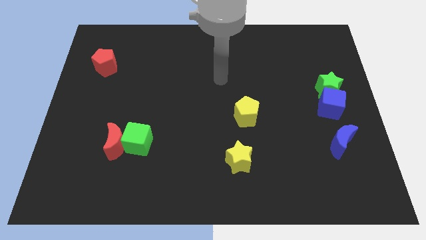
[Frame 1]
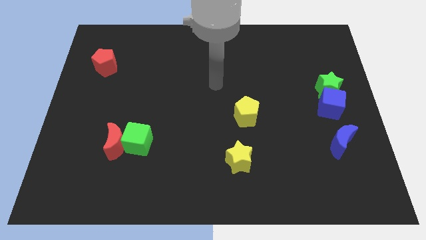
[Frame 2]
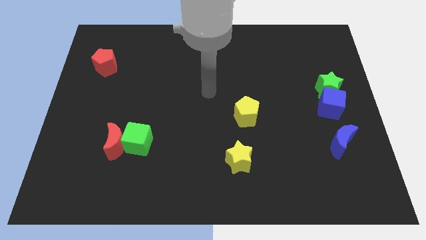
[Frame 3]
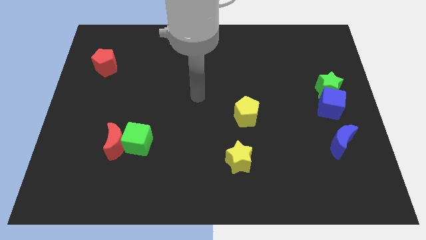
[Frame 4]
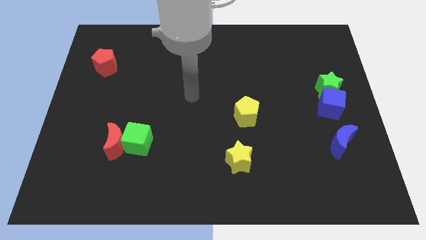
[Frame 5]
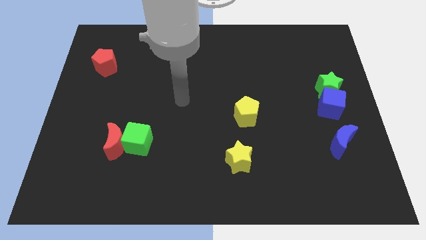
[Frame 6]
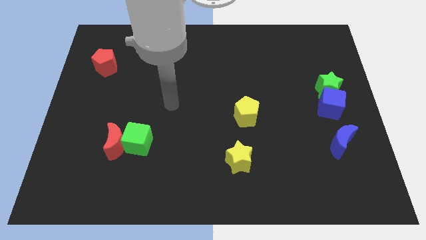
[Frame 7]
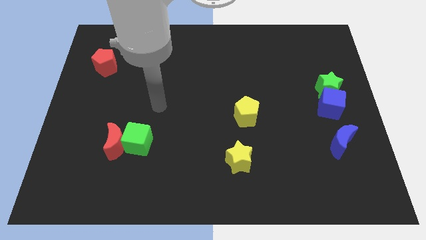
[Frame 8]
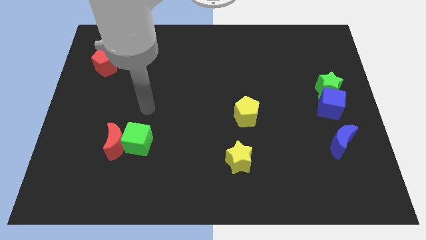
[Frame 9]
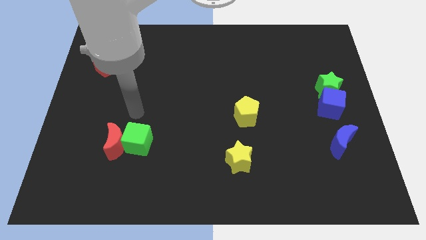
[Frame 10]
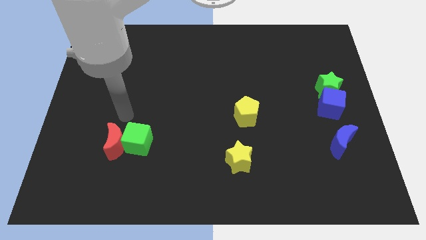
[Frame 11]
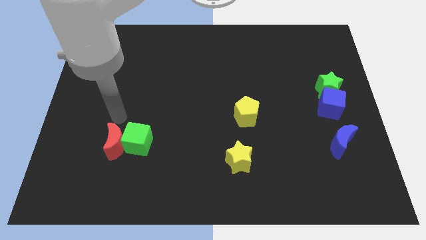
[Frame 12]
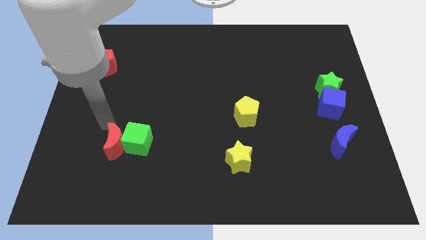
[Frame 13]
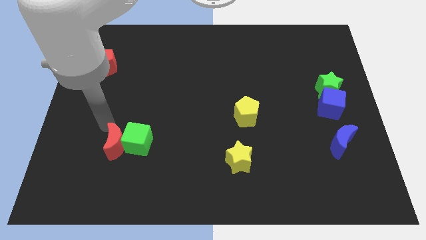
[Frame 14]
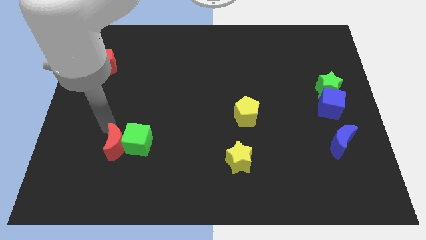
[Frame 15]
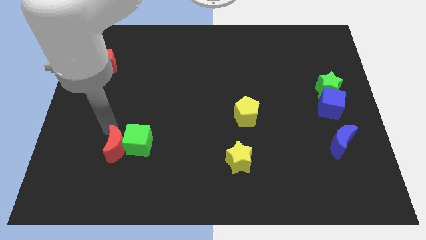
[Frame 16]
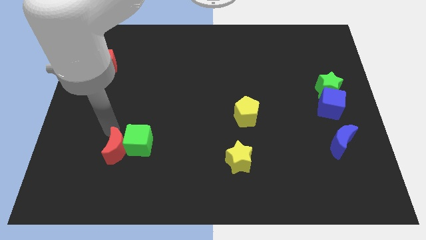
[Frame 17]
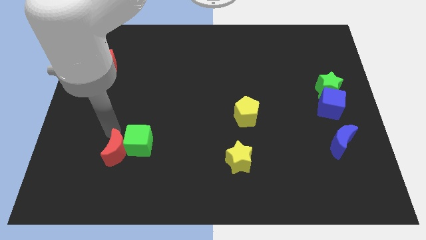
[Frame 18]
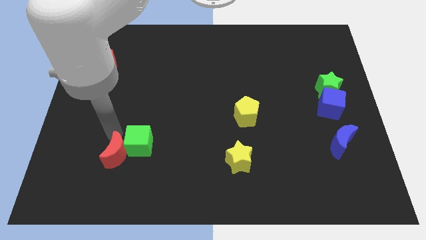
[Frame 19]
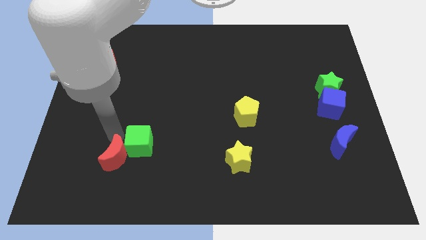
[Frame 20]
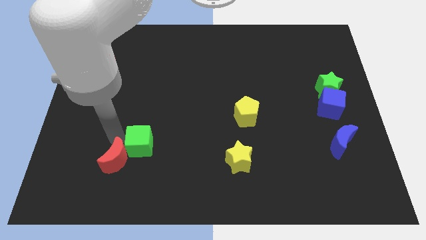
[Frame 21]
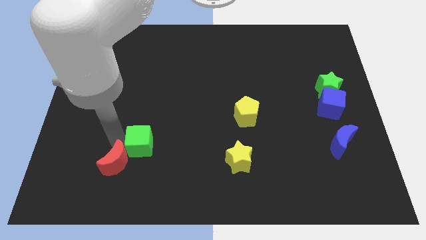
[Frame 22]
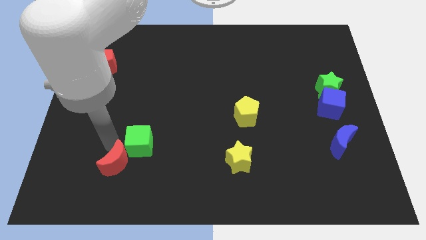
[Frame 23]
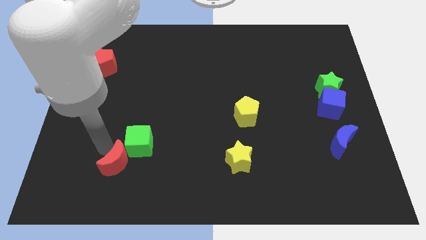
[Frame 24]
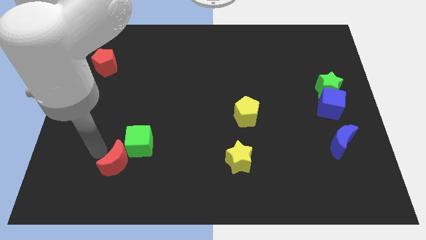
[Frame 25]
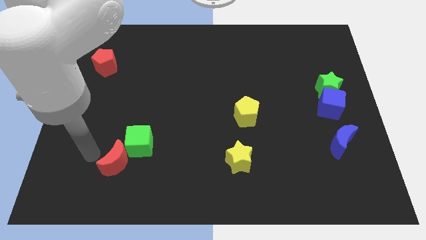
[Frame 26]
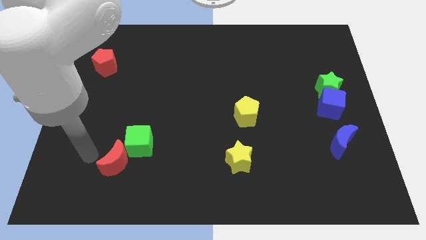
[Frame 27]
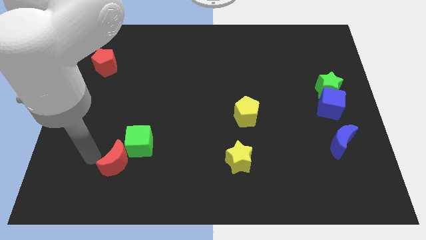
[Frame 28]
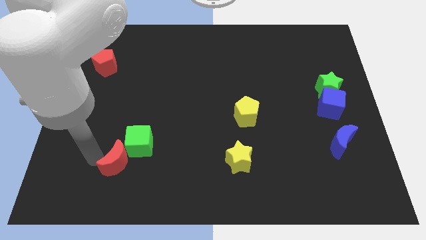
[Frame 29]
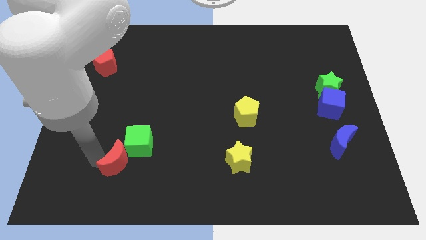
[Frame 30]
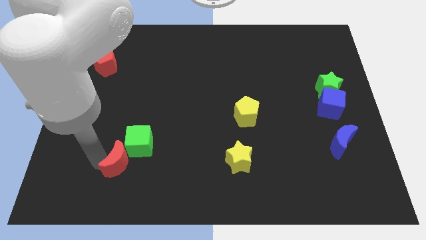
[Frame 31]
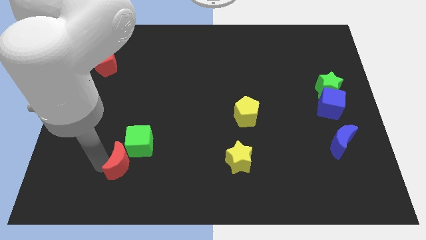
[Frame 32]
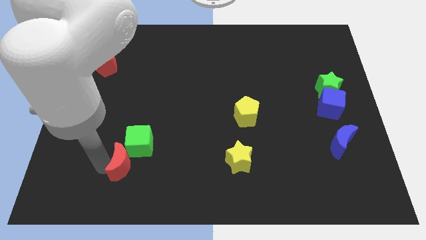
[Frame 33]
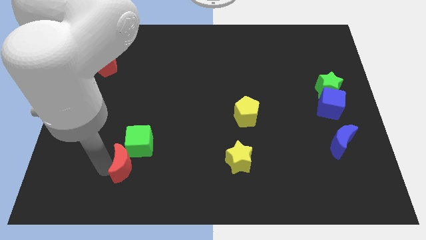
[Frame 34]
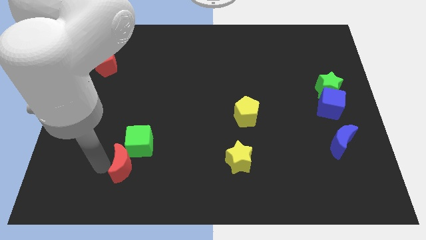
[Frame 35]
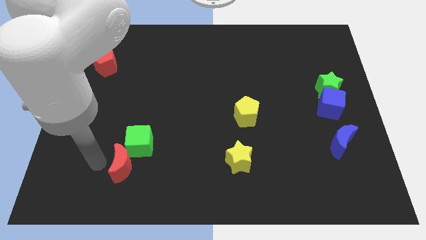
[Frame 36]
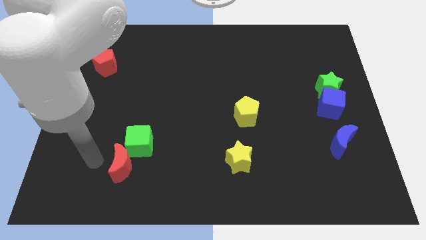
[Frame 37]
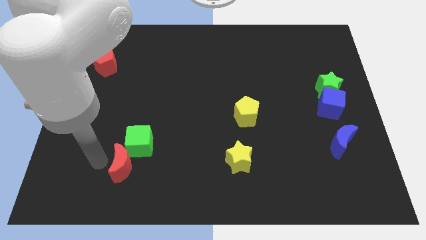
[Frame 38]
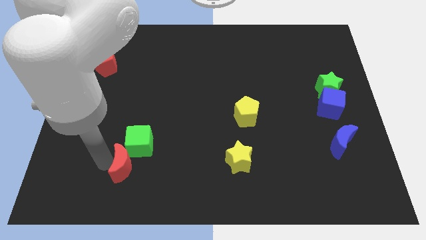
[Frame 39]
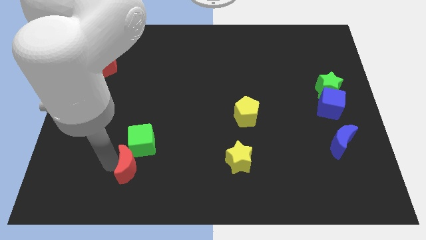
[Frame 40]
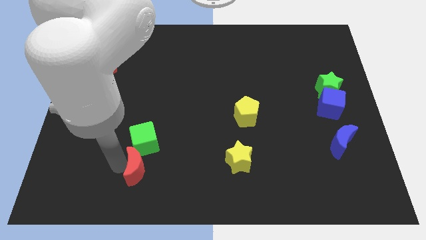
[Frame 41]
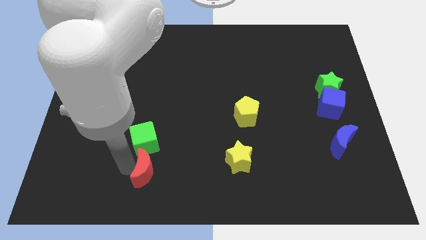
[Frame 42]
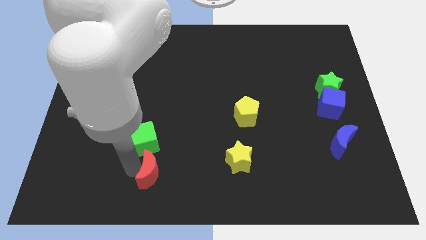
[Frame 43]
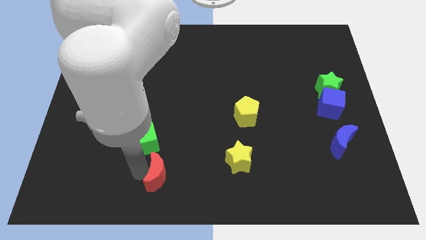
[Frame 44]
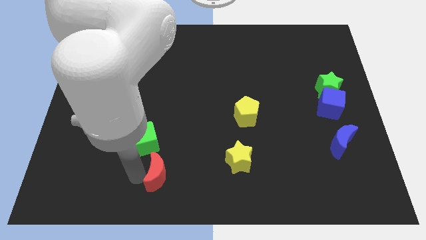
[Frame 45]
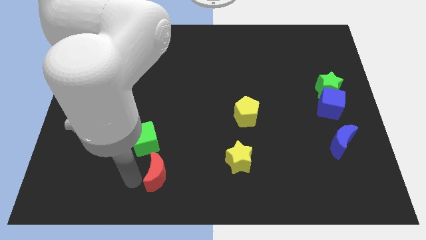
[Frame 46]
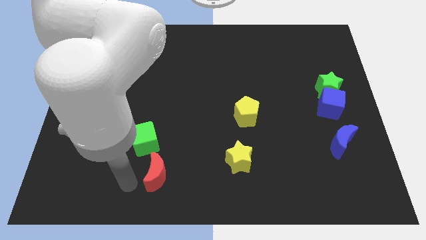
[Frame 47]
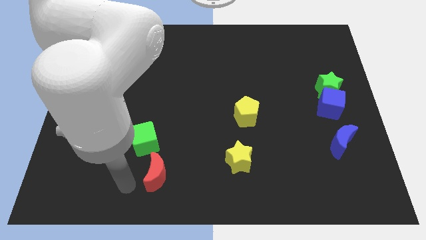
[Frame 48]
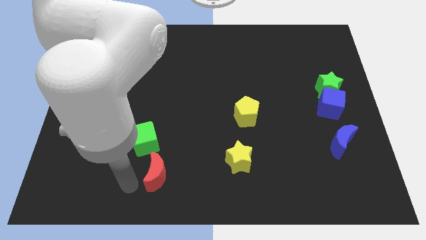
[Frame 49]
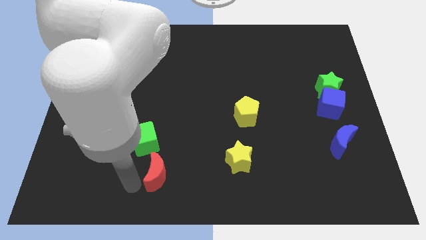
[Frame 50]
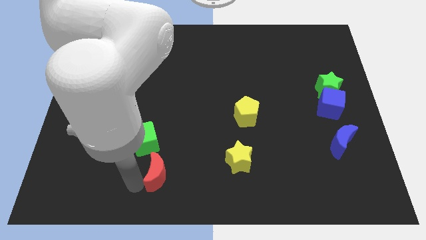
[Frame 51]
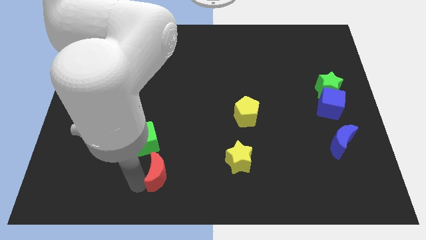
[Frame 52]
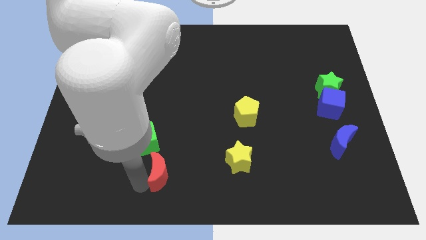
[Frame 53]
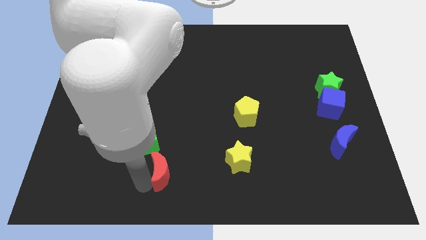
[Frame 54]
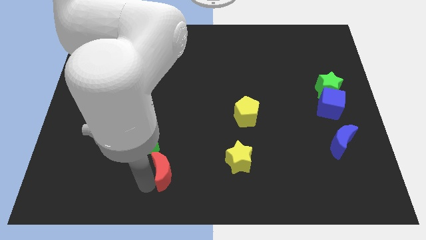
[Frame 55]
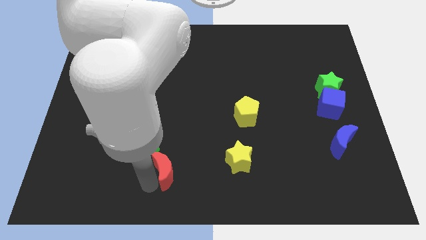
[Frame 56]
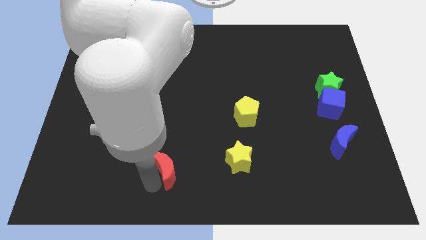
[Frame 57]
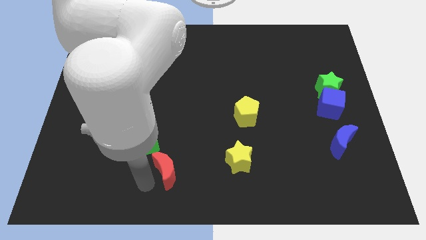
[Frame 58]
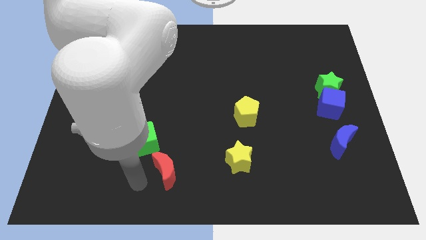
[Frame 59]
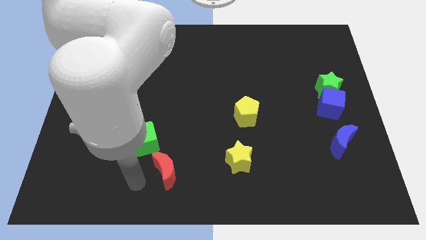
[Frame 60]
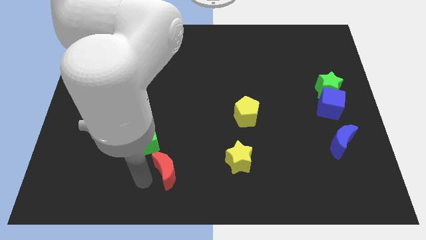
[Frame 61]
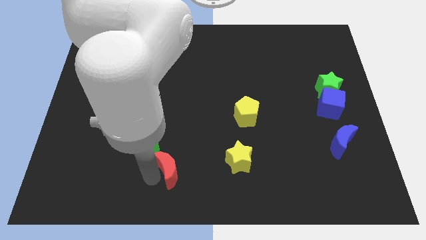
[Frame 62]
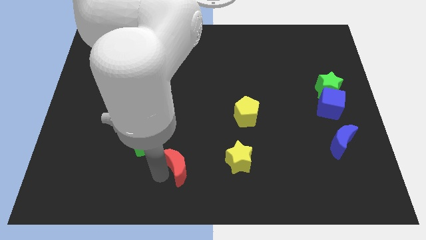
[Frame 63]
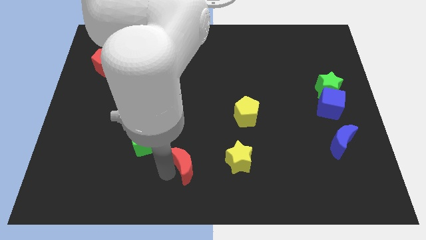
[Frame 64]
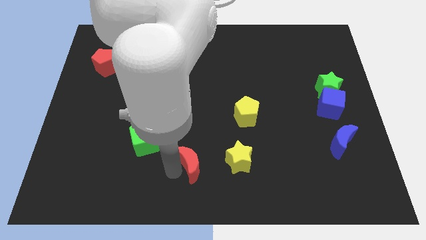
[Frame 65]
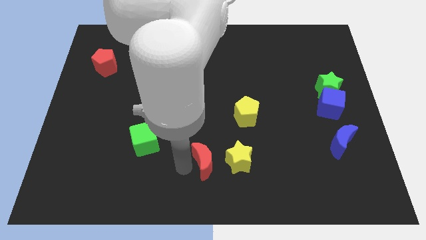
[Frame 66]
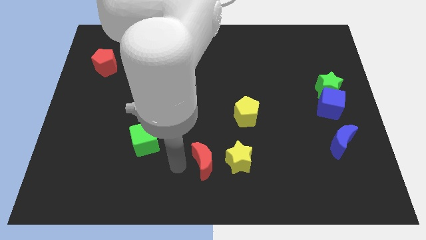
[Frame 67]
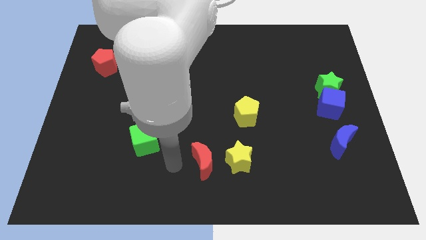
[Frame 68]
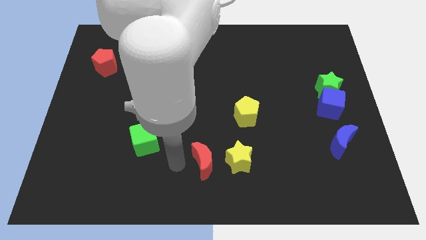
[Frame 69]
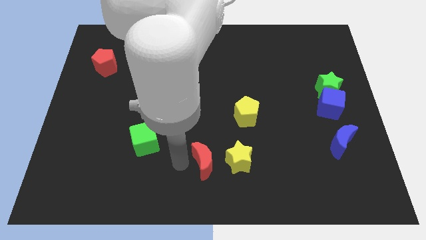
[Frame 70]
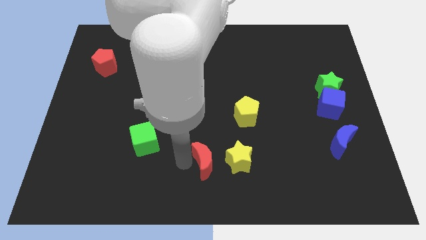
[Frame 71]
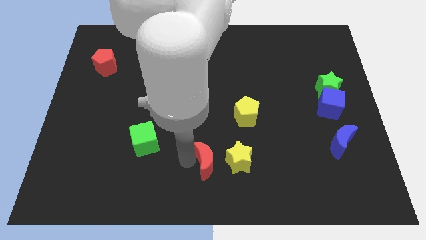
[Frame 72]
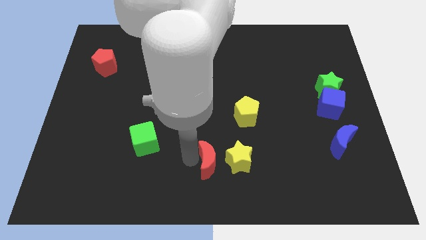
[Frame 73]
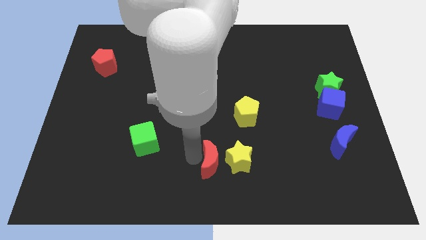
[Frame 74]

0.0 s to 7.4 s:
push the red moon towards the yellow star
